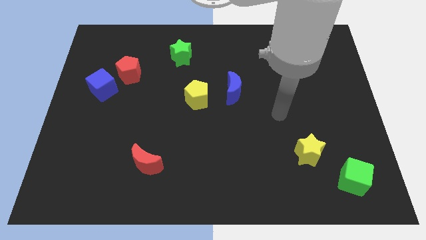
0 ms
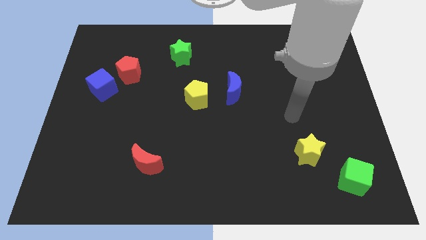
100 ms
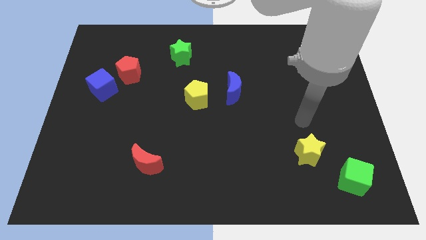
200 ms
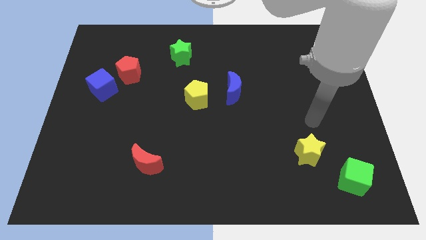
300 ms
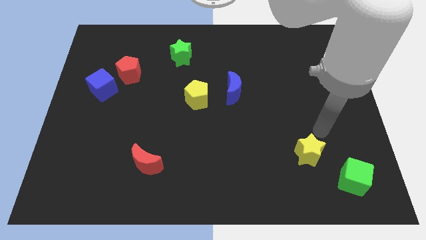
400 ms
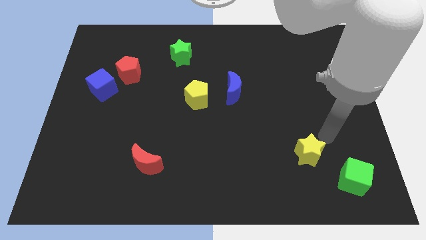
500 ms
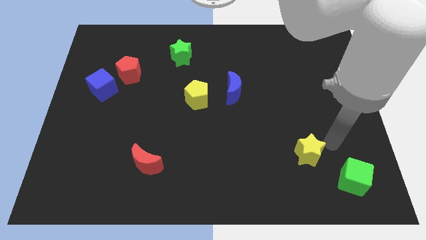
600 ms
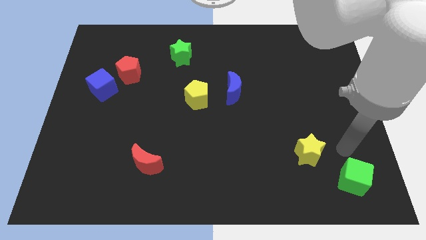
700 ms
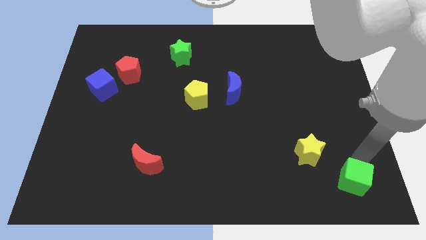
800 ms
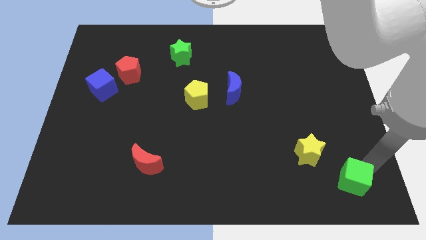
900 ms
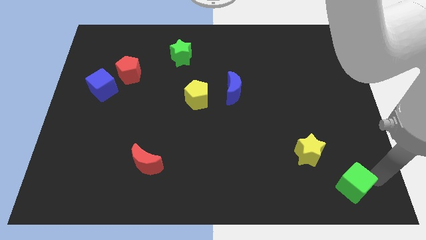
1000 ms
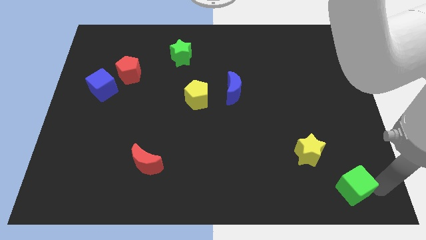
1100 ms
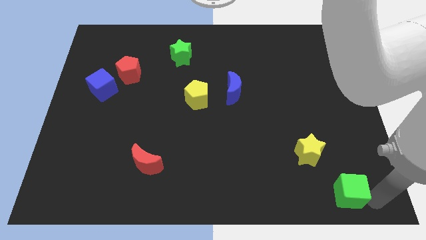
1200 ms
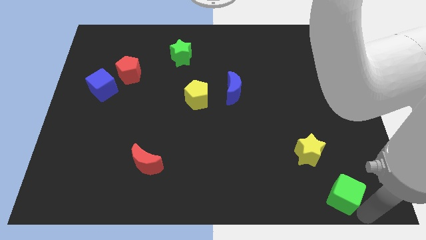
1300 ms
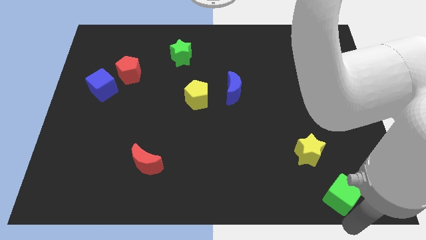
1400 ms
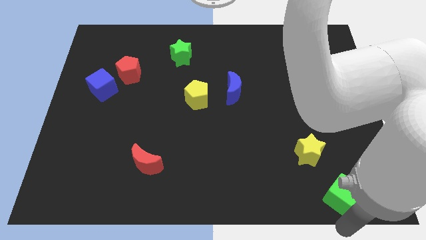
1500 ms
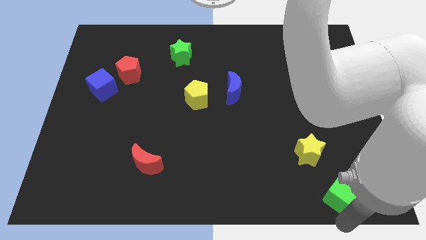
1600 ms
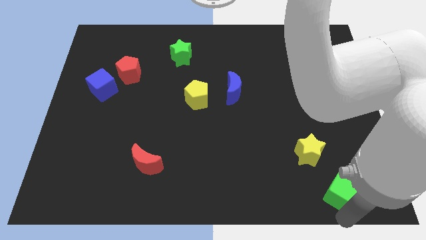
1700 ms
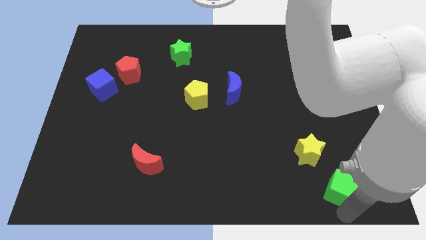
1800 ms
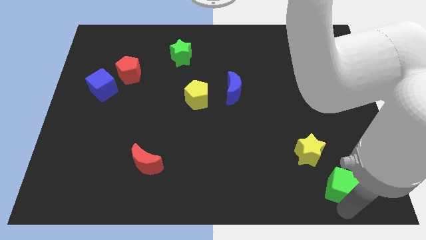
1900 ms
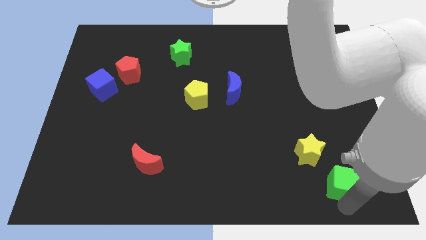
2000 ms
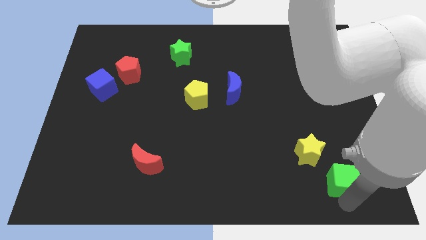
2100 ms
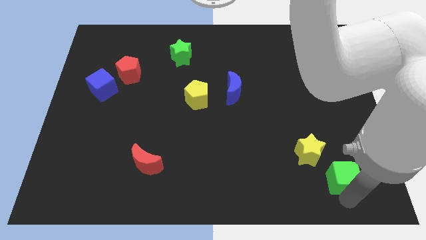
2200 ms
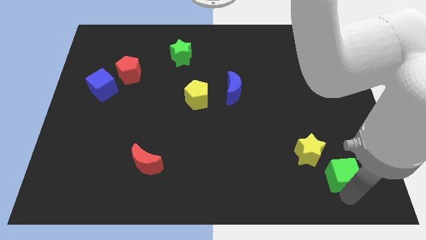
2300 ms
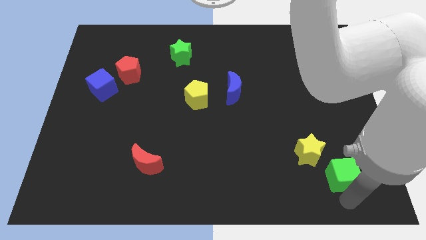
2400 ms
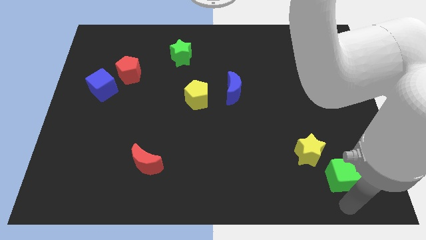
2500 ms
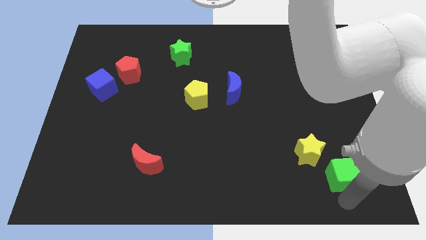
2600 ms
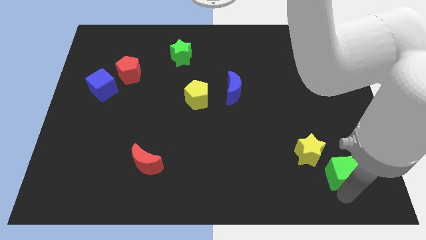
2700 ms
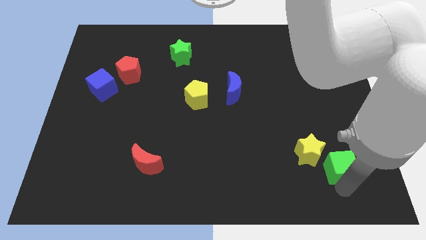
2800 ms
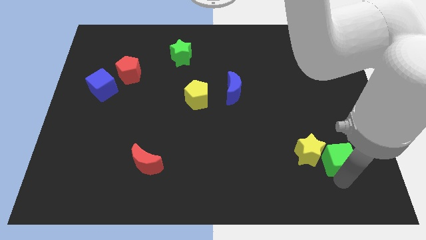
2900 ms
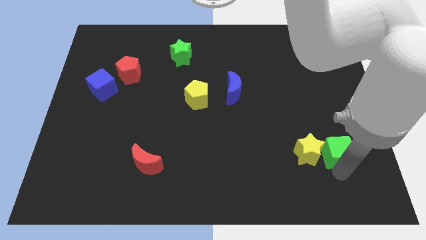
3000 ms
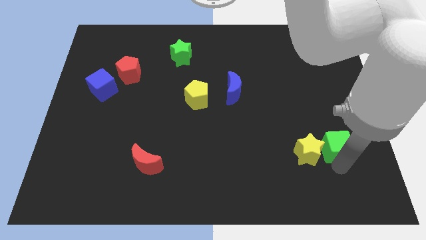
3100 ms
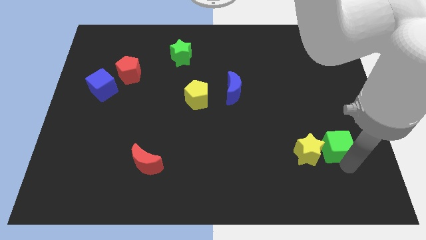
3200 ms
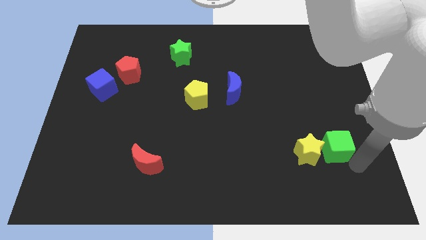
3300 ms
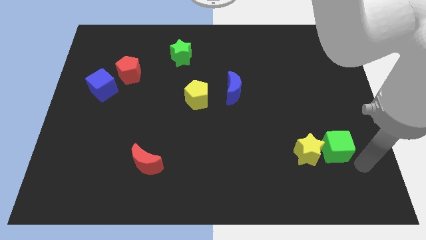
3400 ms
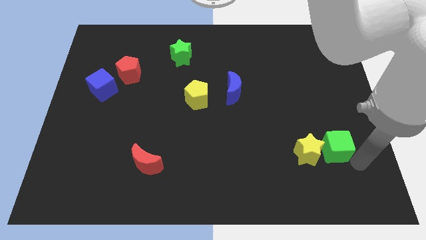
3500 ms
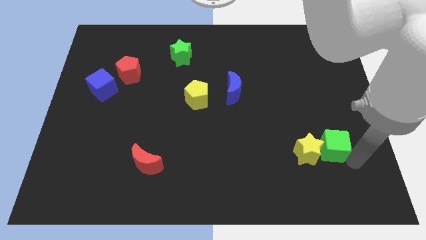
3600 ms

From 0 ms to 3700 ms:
slightly push the green cube upwards and then left

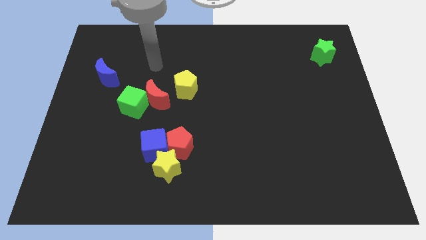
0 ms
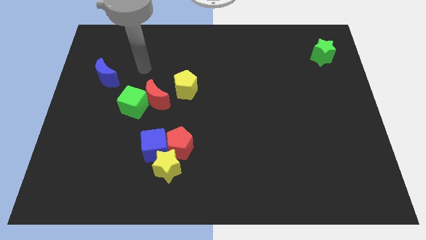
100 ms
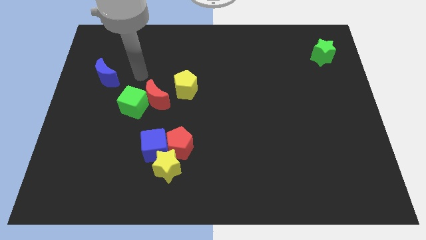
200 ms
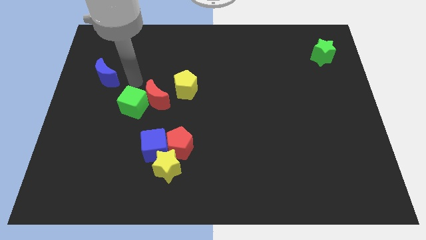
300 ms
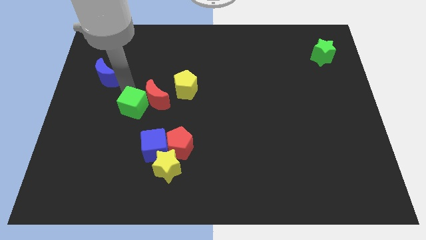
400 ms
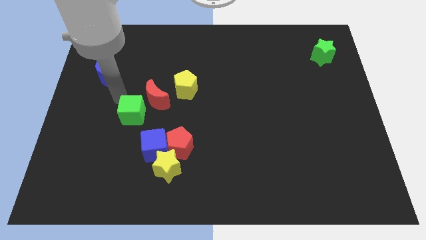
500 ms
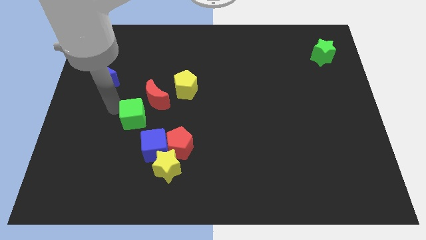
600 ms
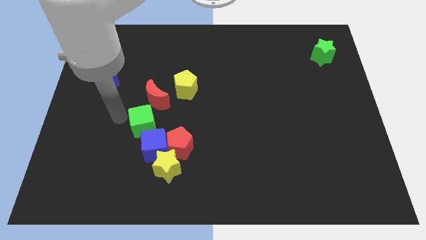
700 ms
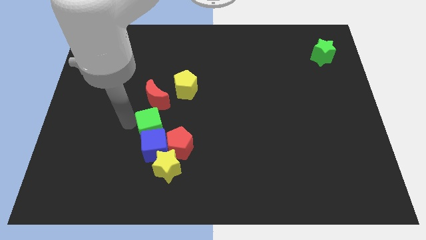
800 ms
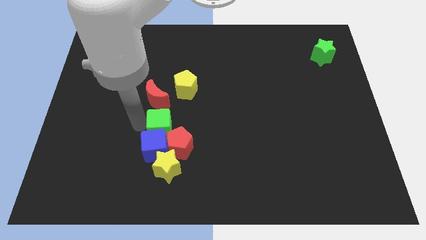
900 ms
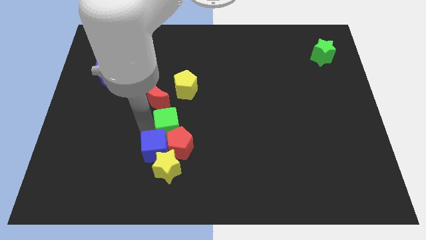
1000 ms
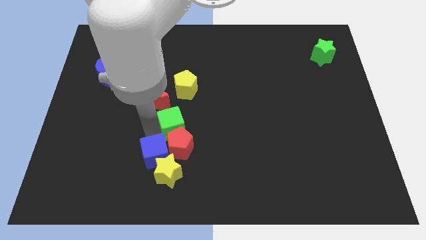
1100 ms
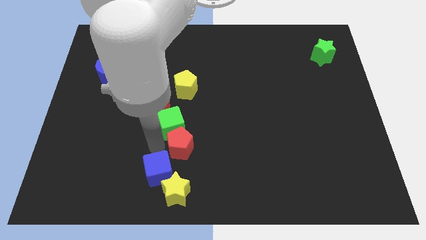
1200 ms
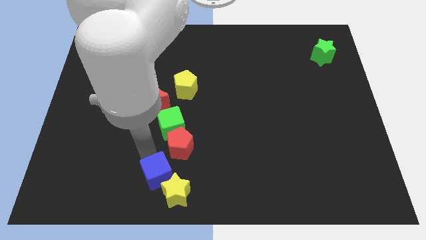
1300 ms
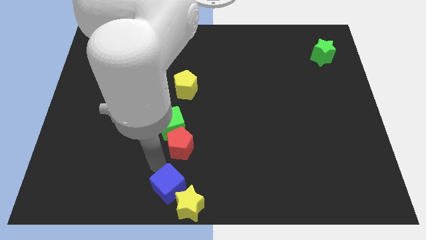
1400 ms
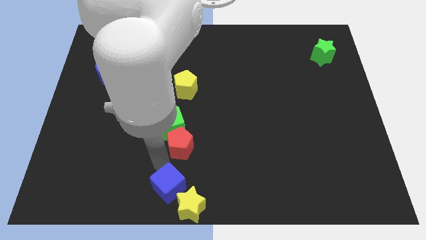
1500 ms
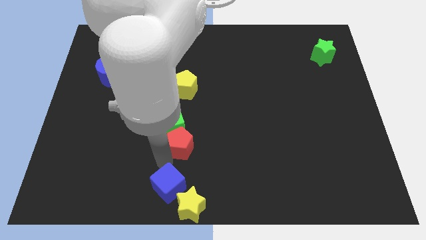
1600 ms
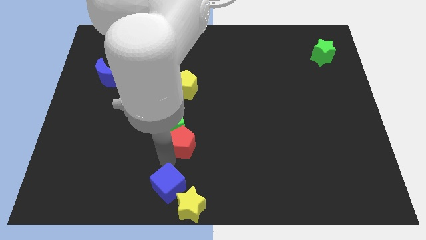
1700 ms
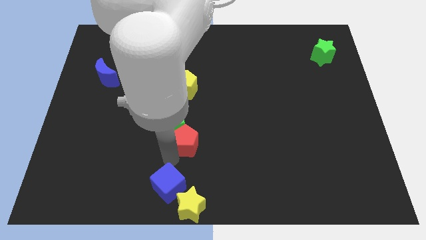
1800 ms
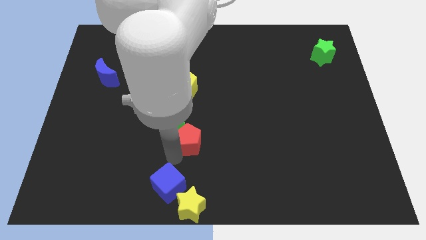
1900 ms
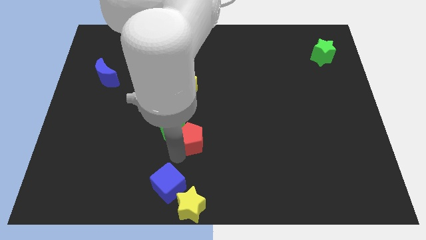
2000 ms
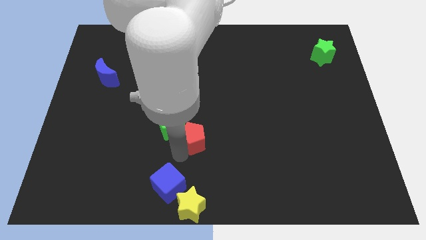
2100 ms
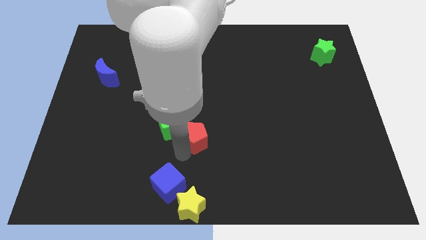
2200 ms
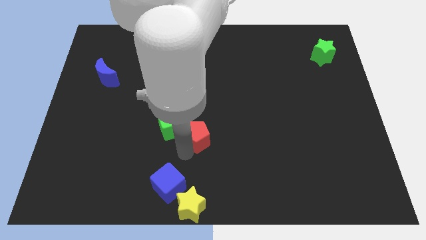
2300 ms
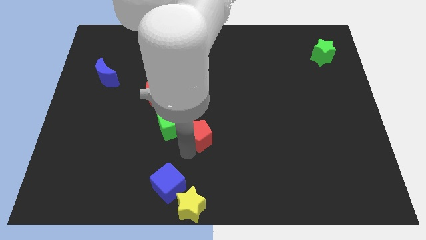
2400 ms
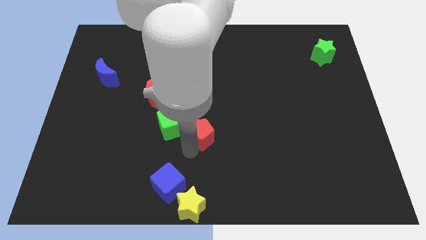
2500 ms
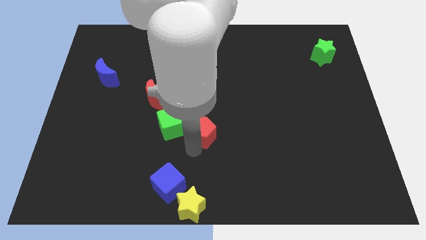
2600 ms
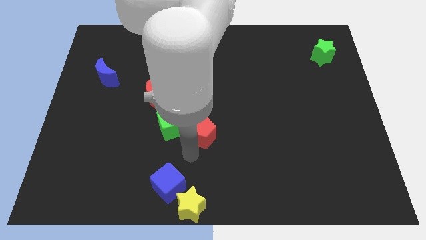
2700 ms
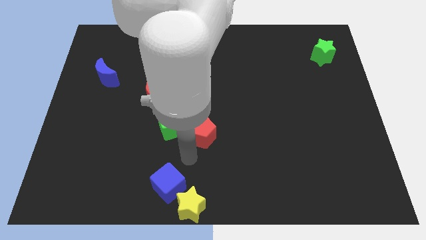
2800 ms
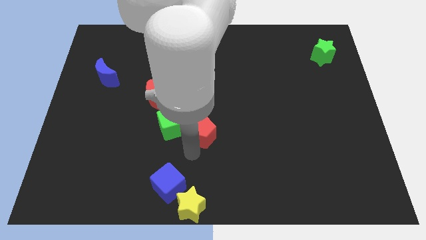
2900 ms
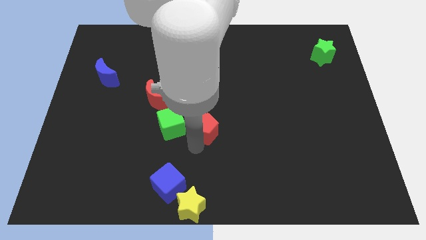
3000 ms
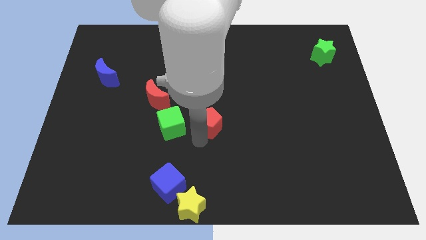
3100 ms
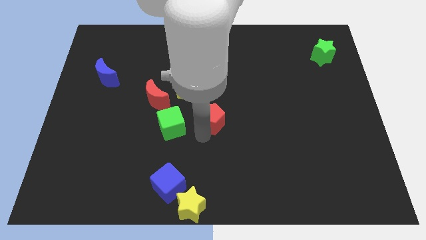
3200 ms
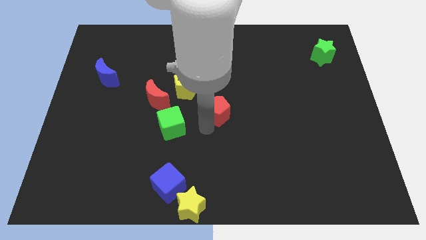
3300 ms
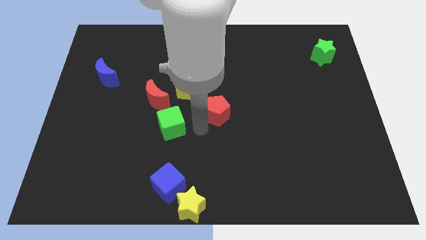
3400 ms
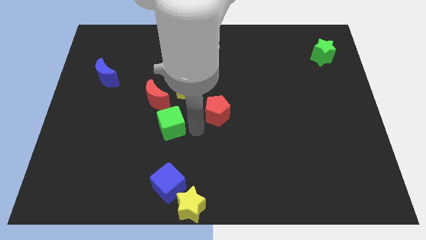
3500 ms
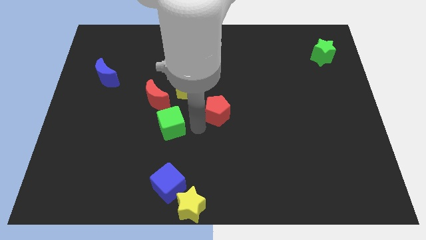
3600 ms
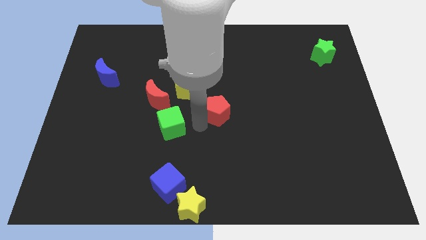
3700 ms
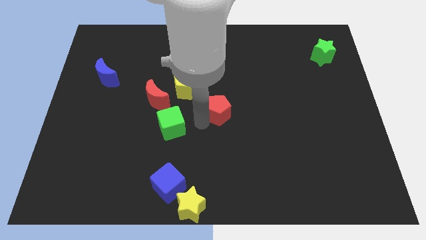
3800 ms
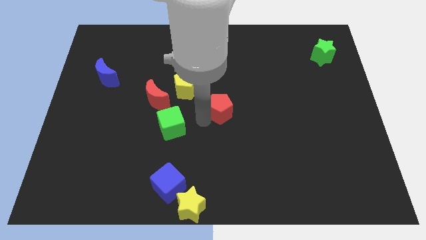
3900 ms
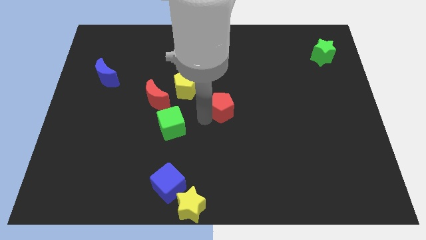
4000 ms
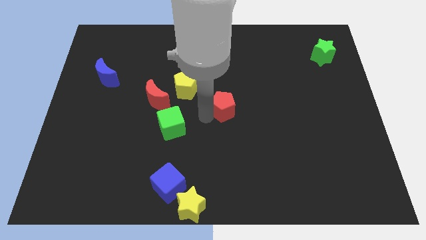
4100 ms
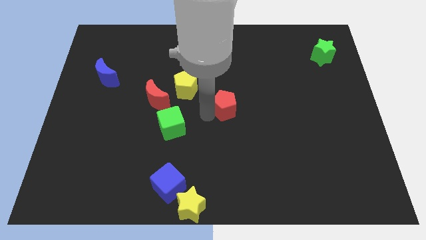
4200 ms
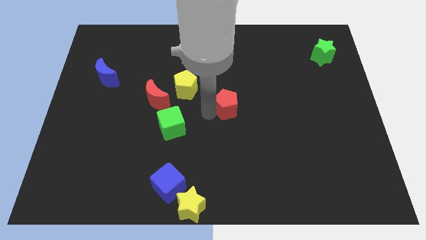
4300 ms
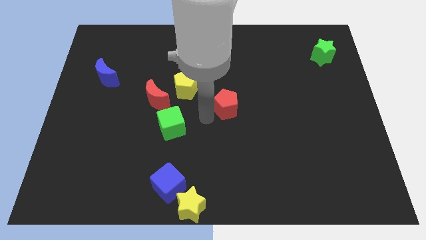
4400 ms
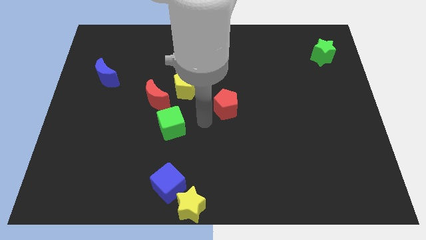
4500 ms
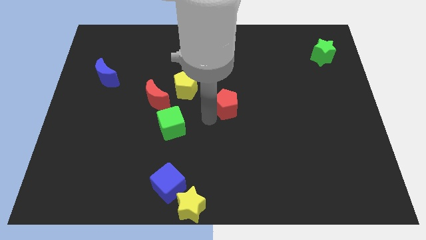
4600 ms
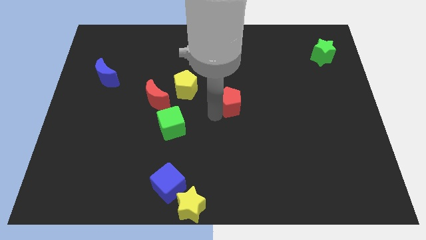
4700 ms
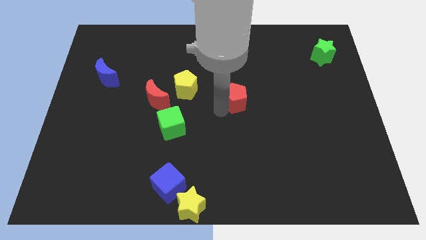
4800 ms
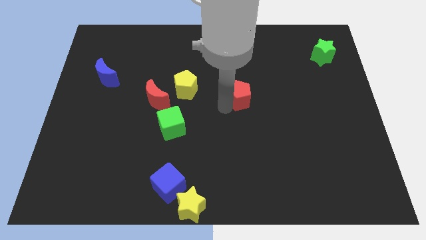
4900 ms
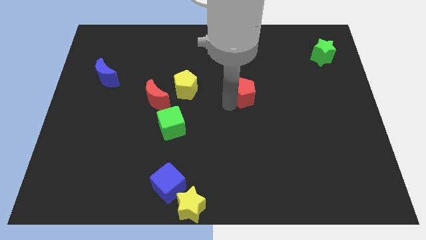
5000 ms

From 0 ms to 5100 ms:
slide the red pentagon diagonally upwards and right

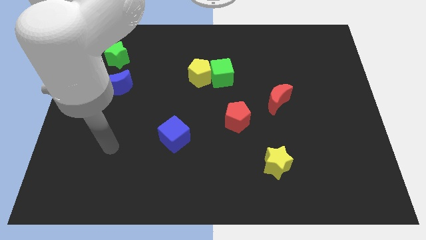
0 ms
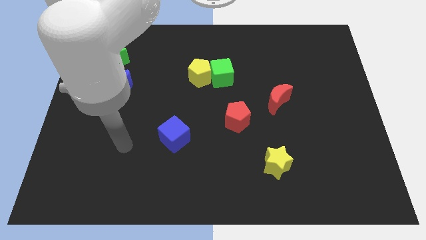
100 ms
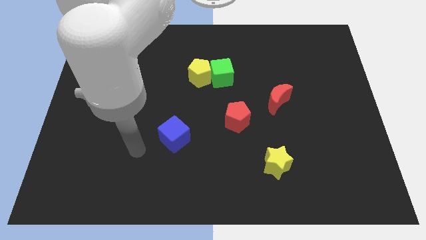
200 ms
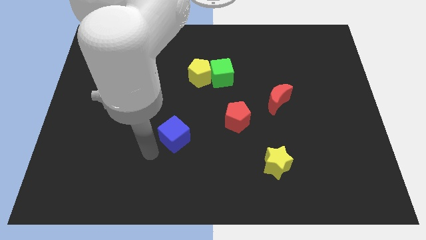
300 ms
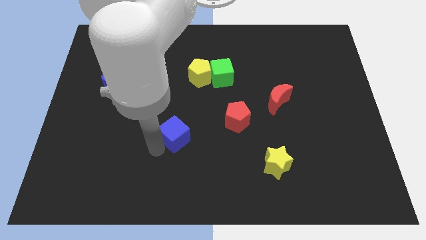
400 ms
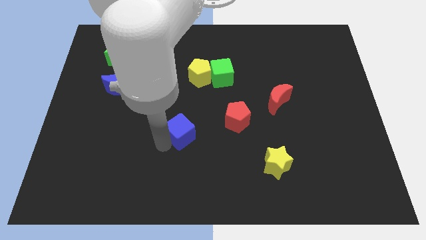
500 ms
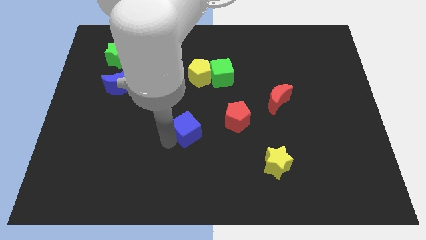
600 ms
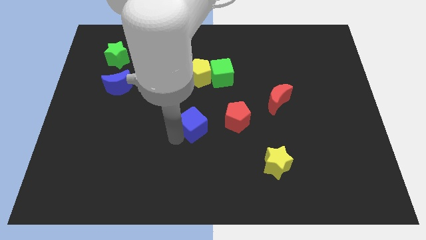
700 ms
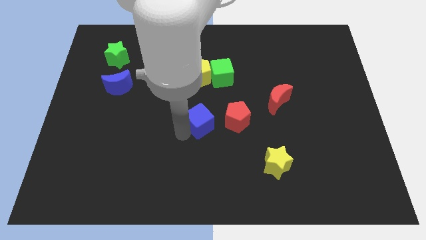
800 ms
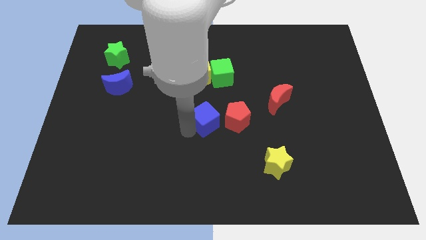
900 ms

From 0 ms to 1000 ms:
slightly move the blue cube up and right diagonally
